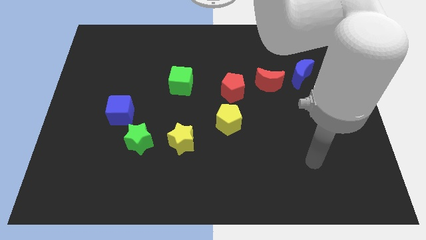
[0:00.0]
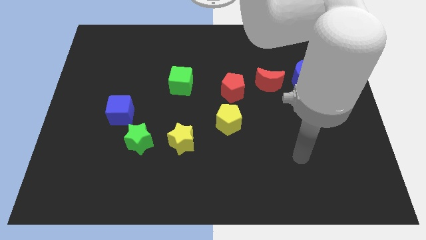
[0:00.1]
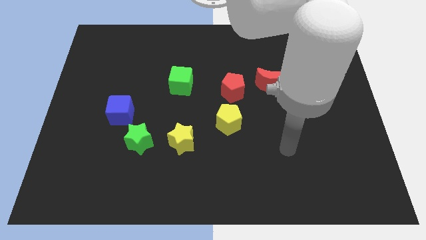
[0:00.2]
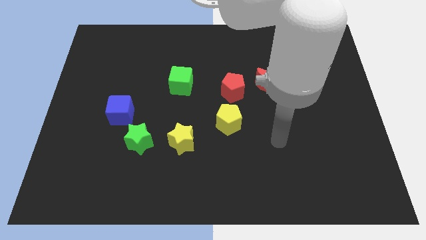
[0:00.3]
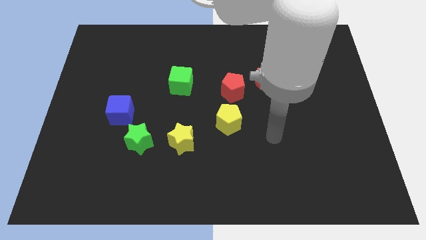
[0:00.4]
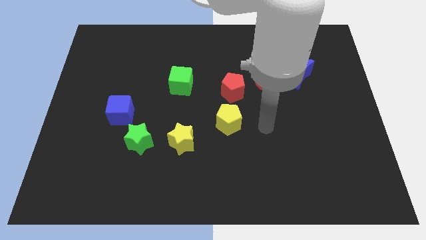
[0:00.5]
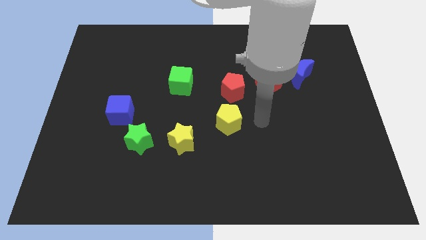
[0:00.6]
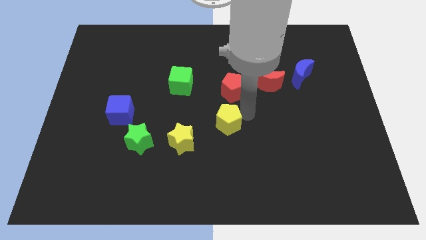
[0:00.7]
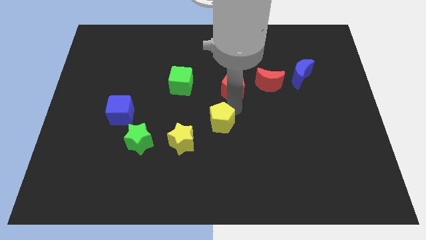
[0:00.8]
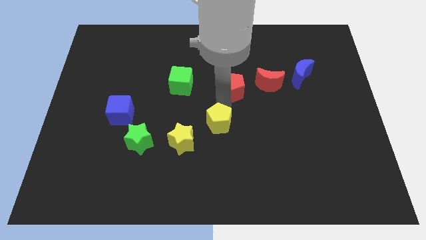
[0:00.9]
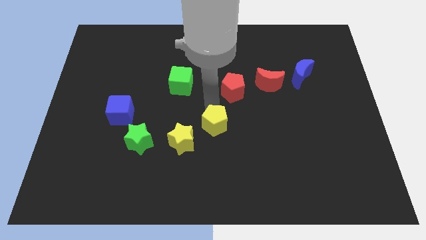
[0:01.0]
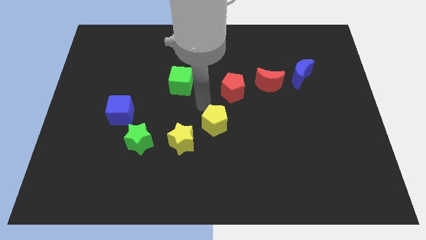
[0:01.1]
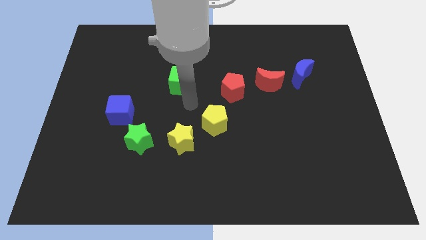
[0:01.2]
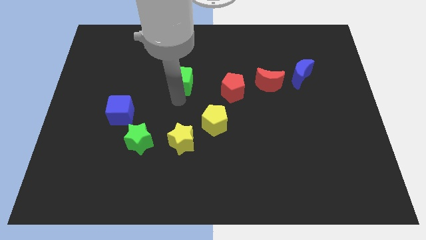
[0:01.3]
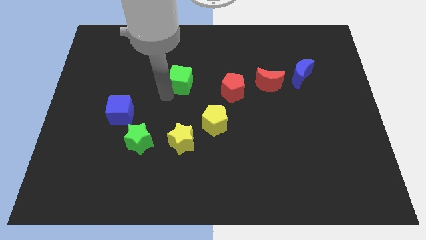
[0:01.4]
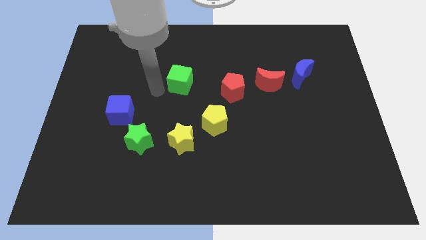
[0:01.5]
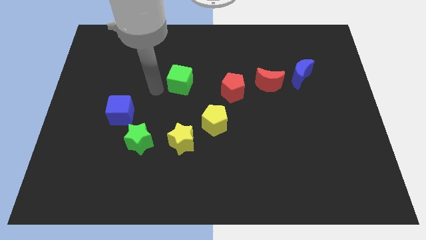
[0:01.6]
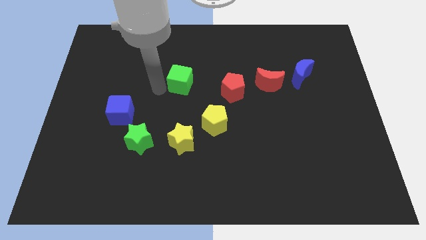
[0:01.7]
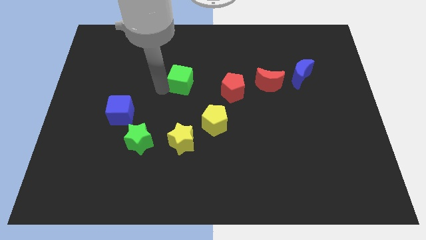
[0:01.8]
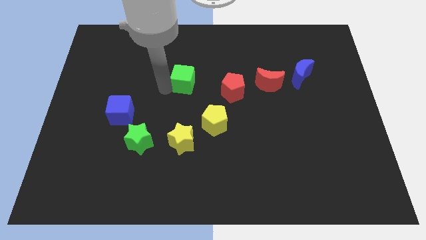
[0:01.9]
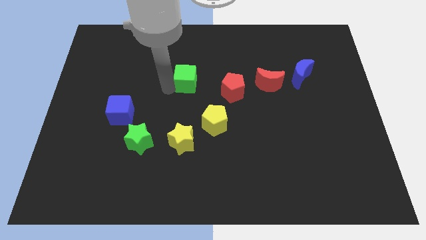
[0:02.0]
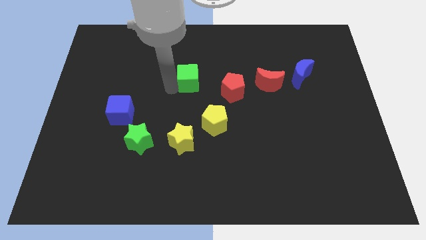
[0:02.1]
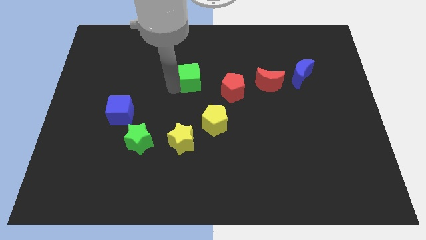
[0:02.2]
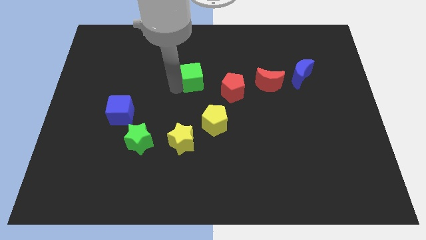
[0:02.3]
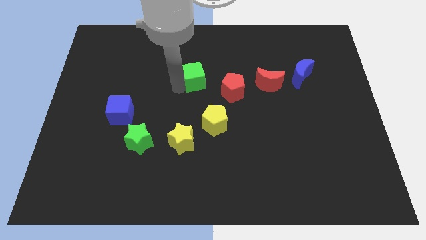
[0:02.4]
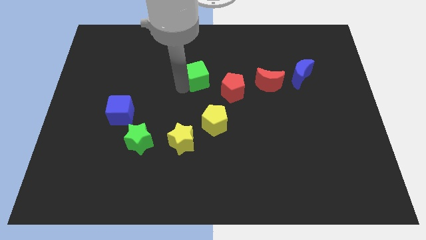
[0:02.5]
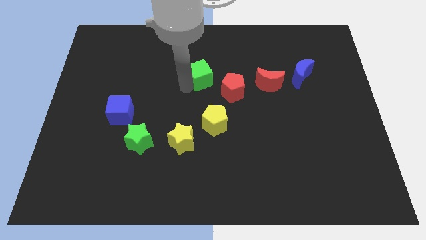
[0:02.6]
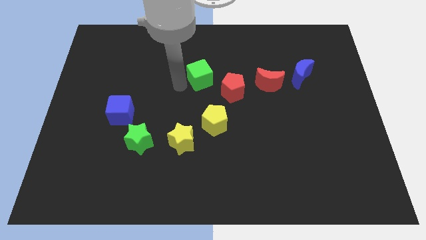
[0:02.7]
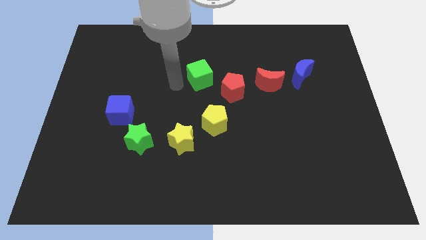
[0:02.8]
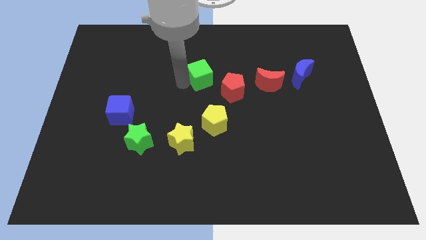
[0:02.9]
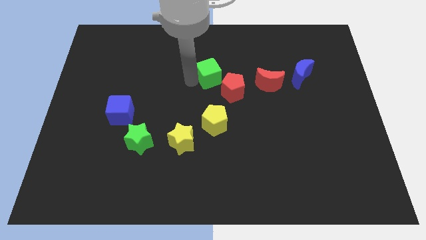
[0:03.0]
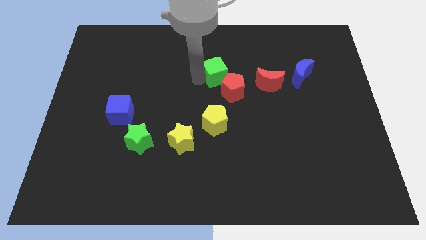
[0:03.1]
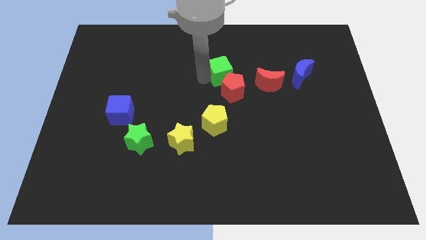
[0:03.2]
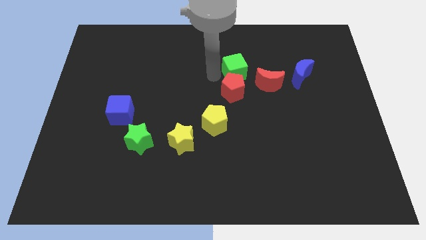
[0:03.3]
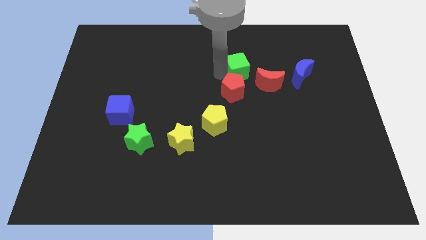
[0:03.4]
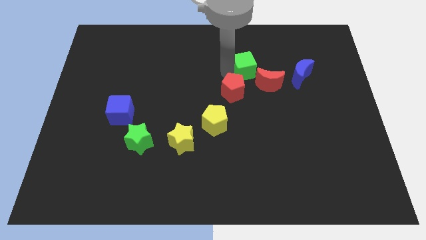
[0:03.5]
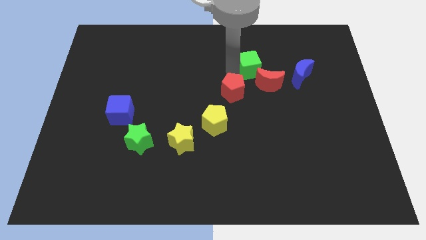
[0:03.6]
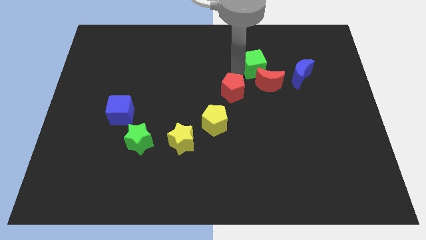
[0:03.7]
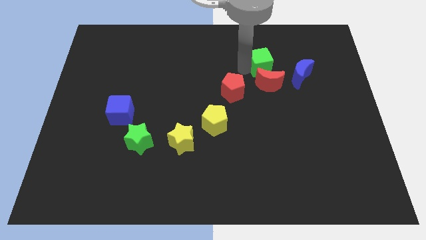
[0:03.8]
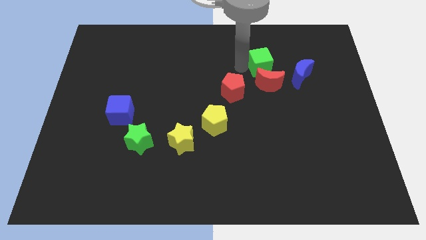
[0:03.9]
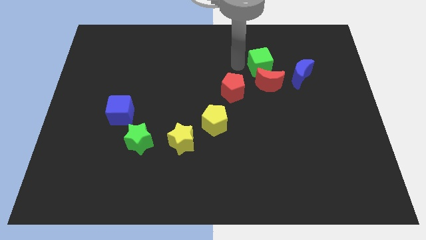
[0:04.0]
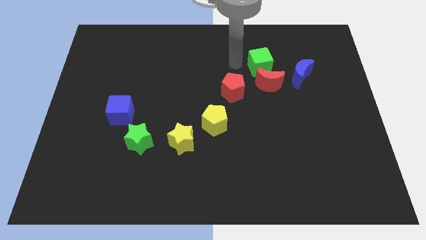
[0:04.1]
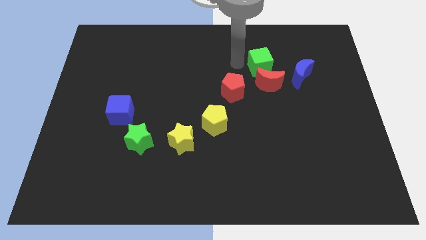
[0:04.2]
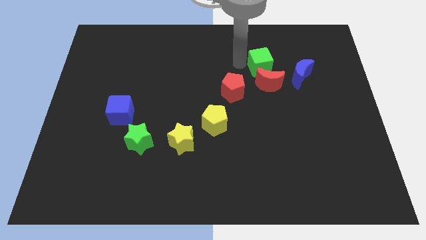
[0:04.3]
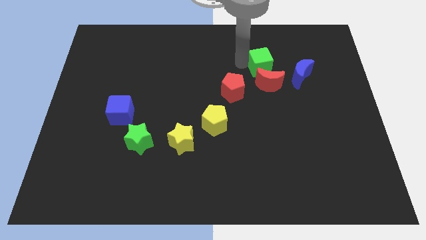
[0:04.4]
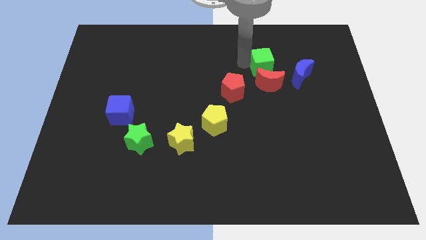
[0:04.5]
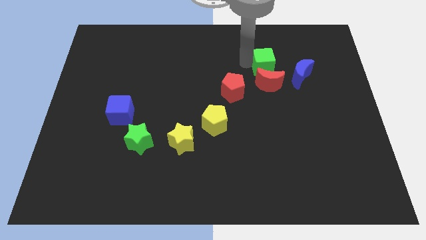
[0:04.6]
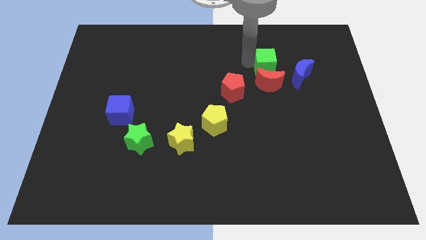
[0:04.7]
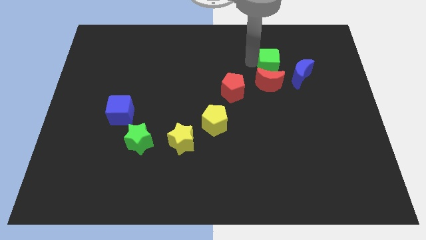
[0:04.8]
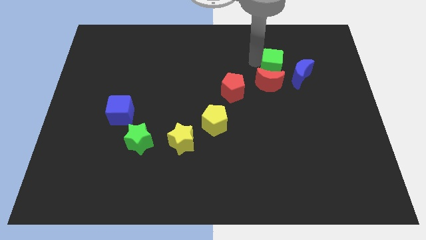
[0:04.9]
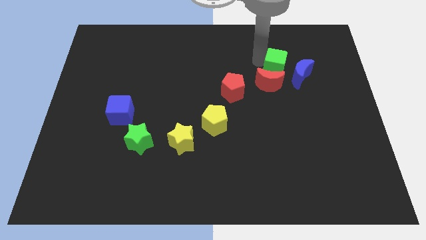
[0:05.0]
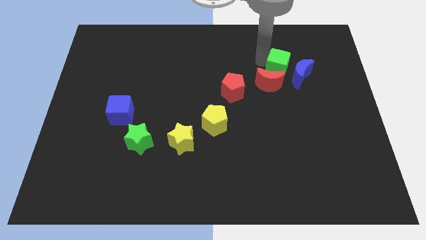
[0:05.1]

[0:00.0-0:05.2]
put the green cube to the blue moon

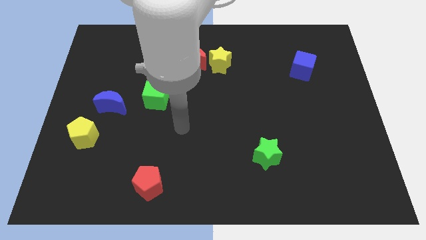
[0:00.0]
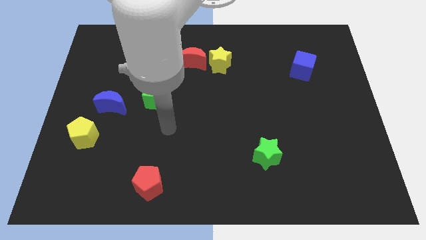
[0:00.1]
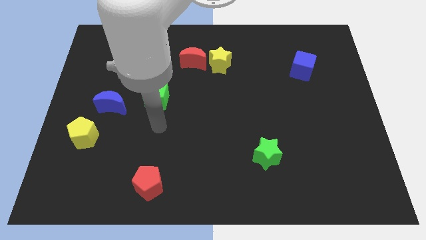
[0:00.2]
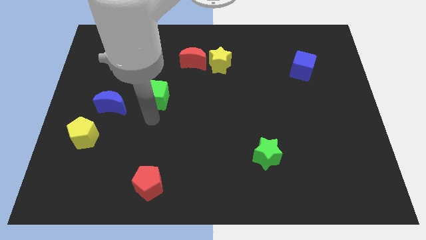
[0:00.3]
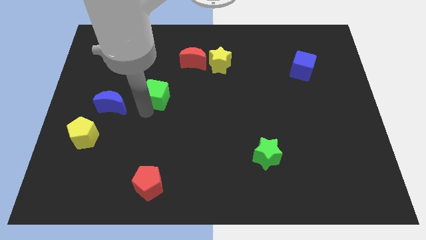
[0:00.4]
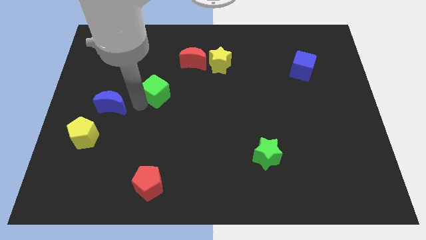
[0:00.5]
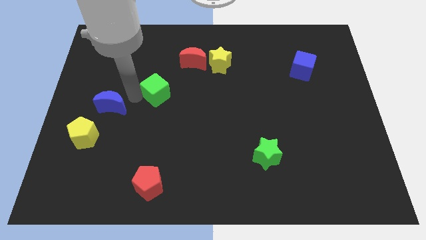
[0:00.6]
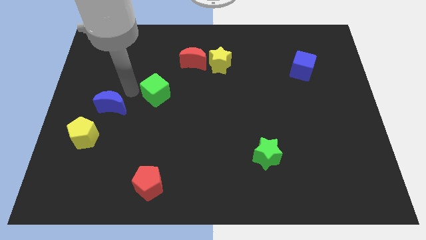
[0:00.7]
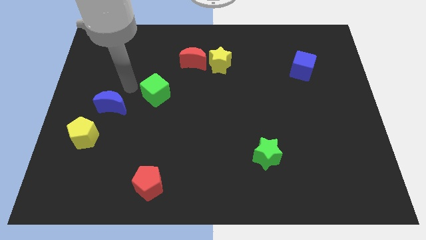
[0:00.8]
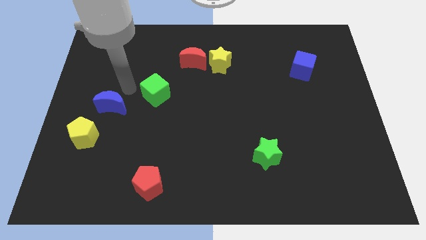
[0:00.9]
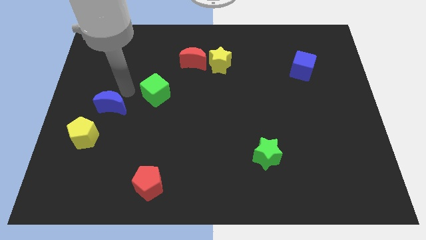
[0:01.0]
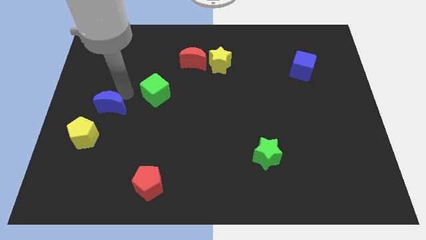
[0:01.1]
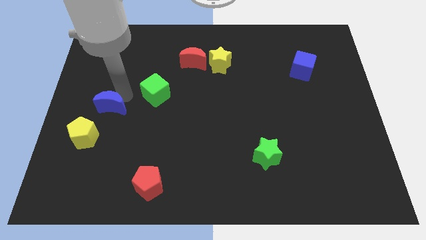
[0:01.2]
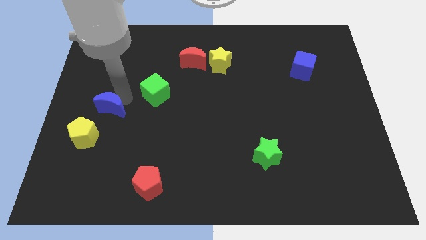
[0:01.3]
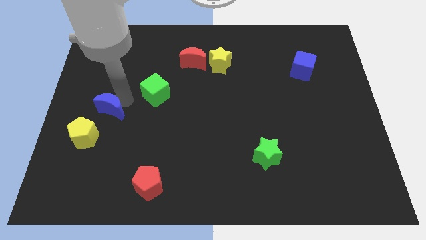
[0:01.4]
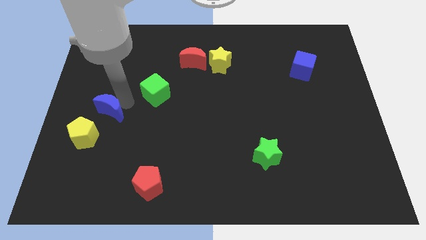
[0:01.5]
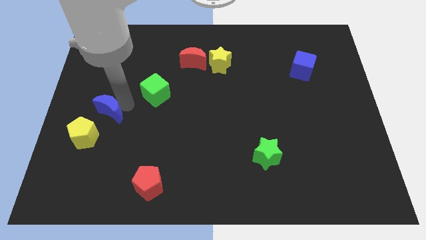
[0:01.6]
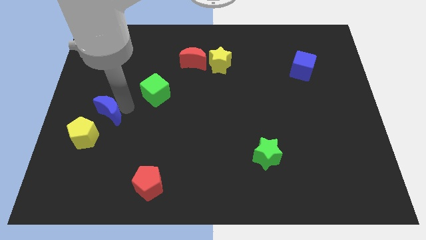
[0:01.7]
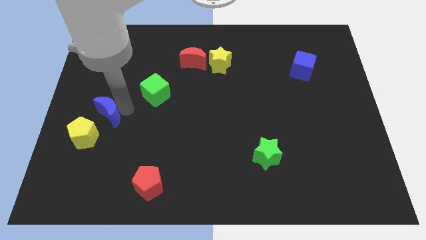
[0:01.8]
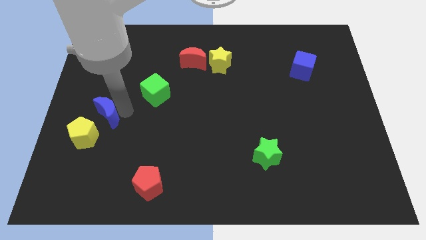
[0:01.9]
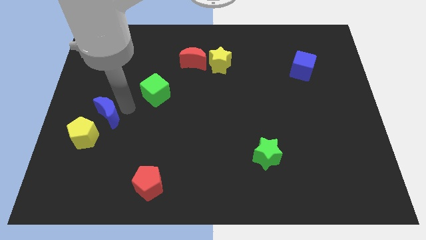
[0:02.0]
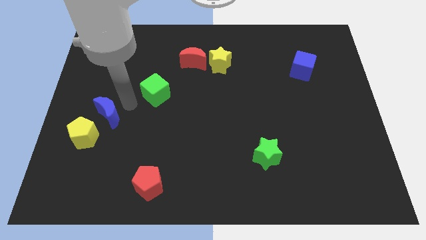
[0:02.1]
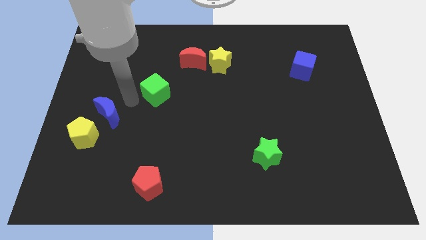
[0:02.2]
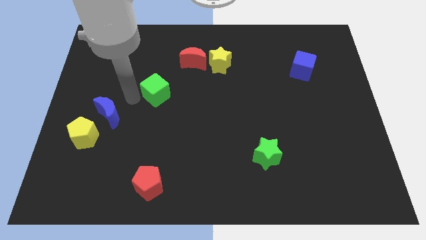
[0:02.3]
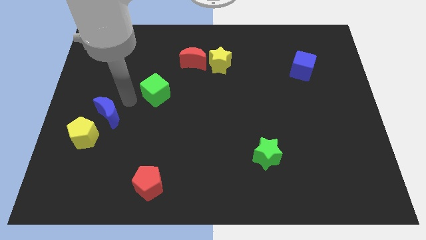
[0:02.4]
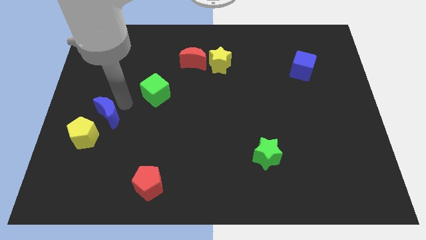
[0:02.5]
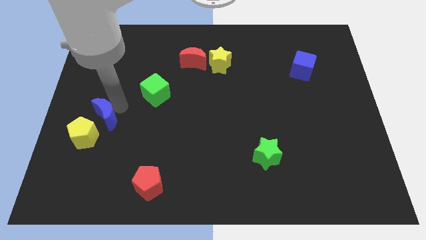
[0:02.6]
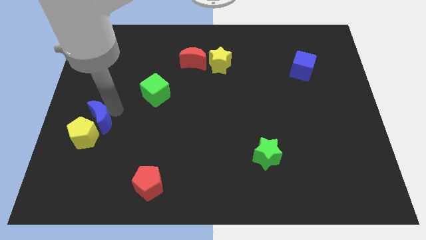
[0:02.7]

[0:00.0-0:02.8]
slide the blue moon next to the yellow pentagon
